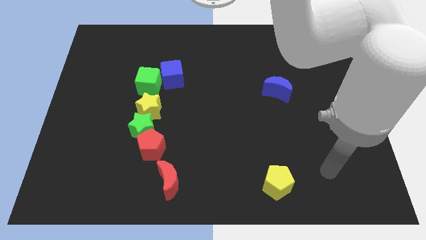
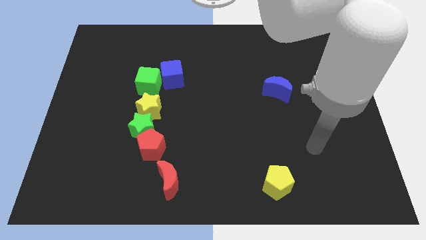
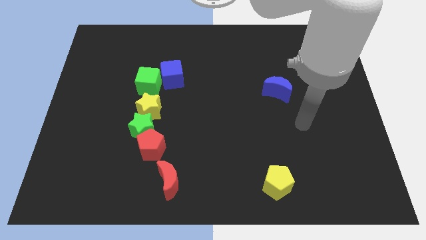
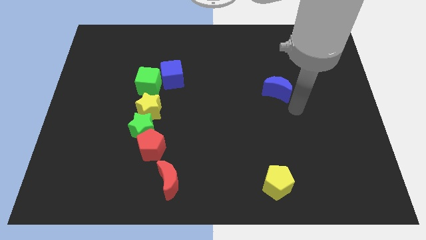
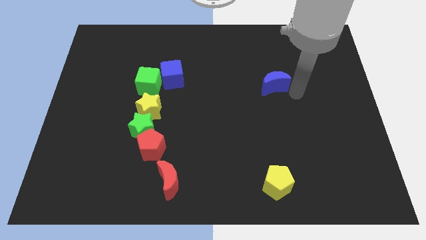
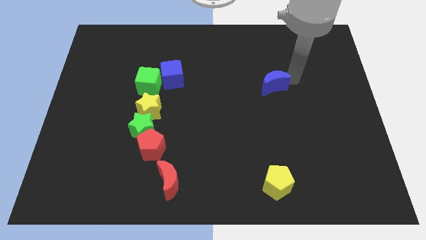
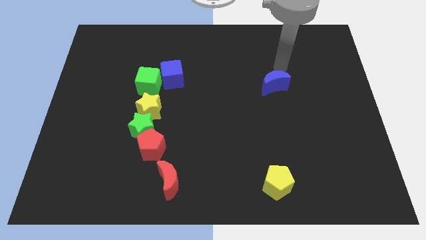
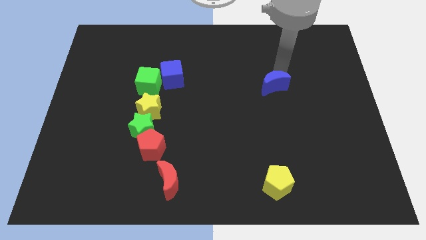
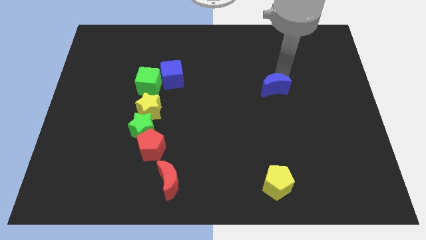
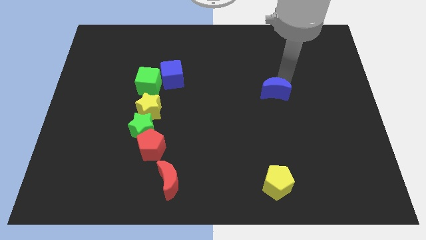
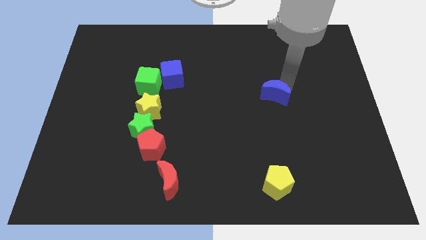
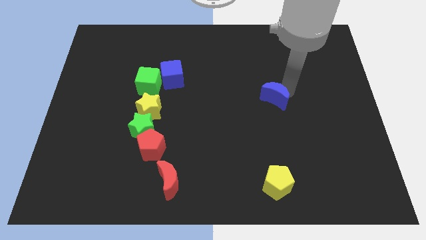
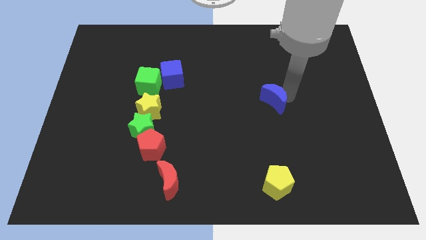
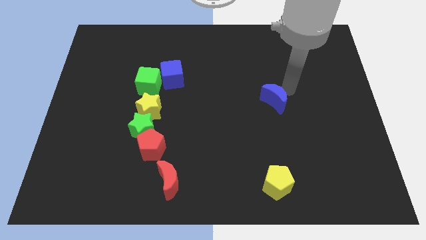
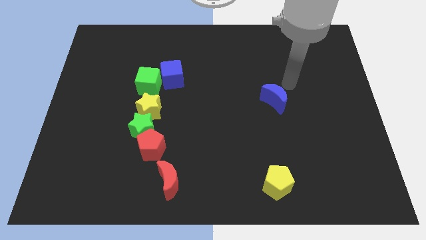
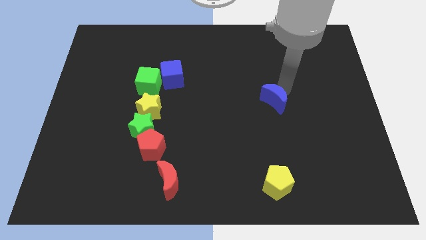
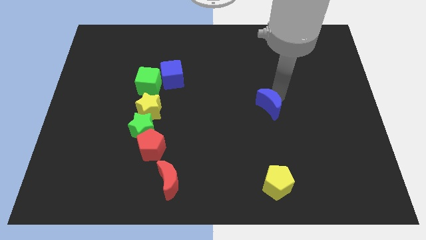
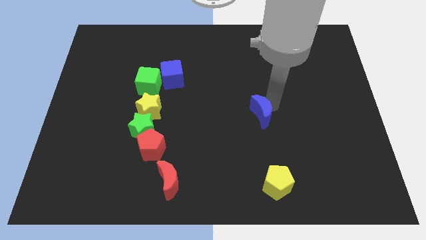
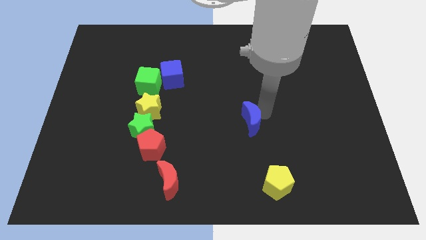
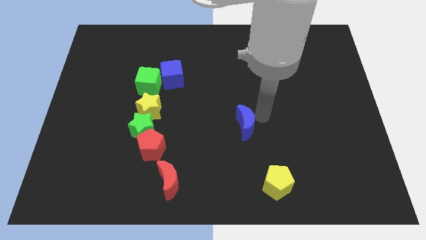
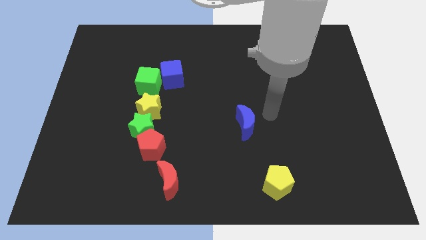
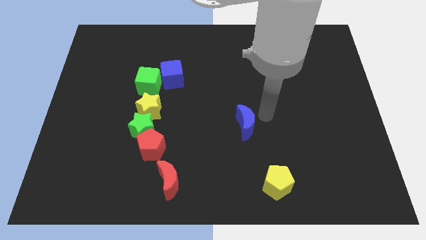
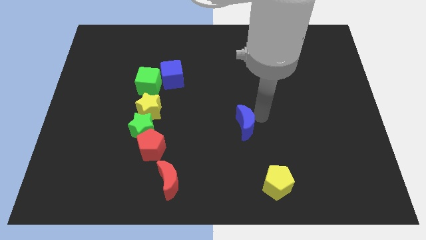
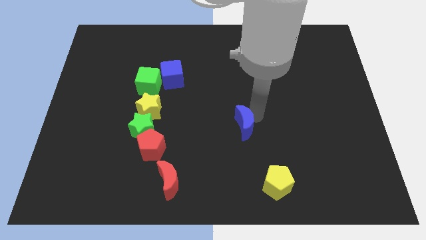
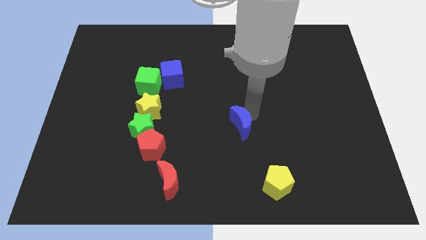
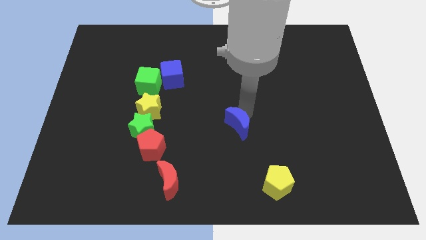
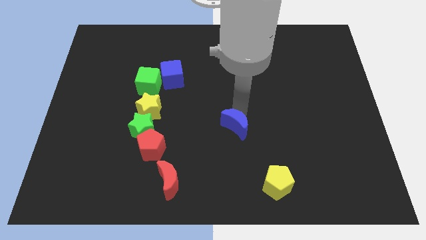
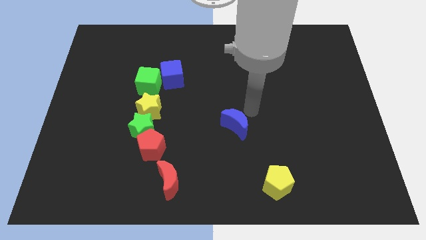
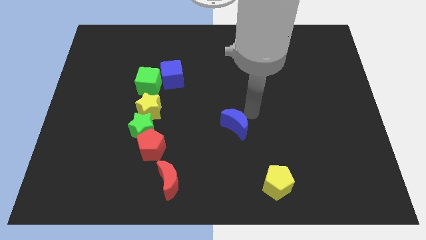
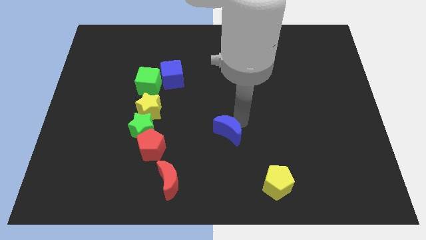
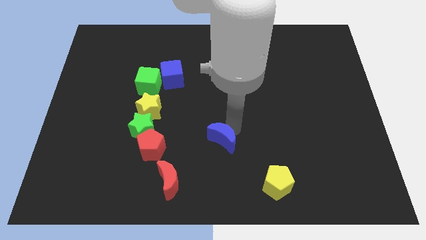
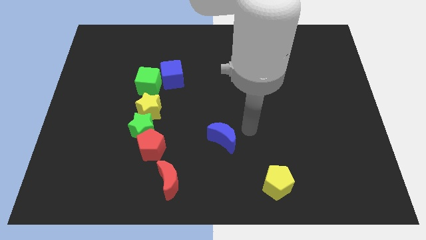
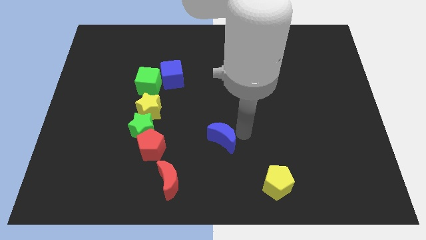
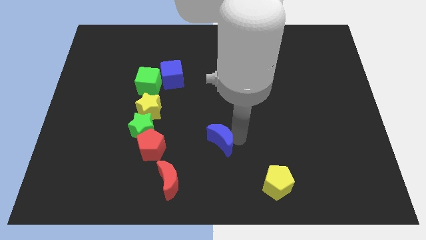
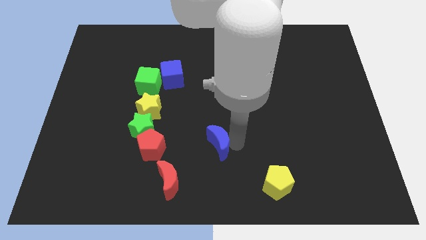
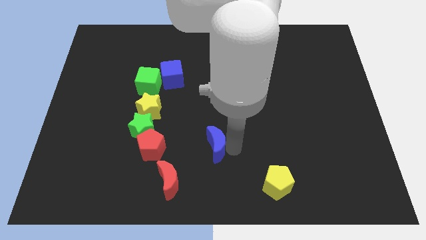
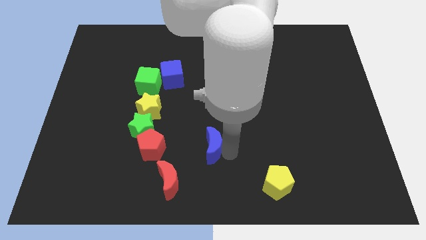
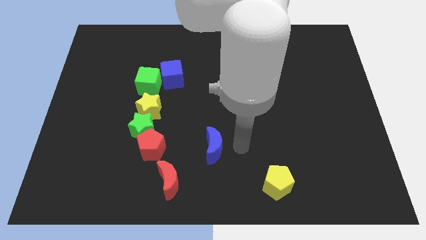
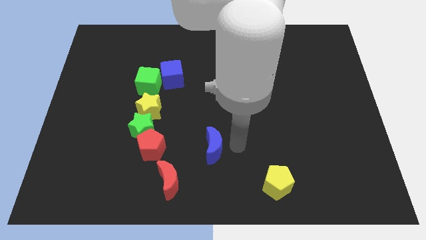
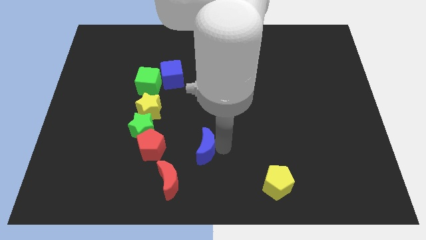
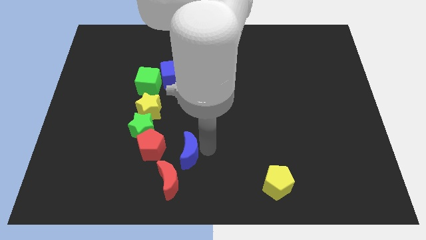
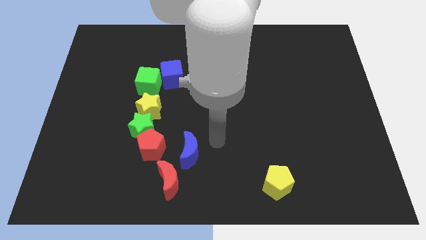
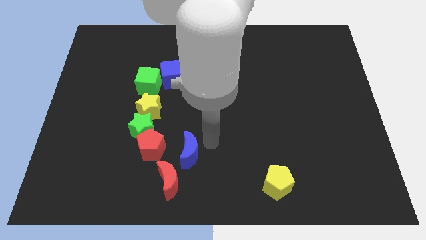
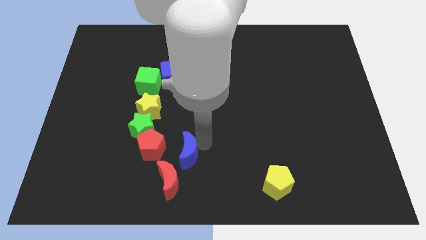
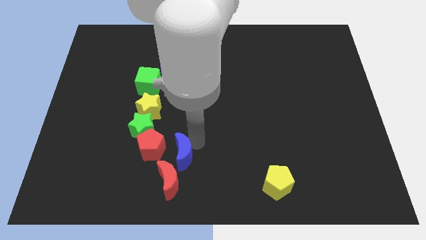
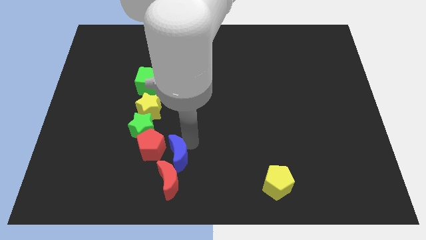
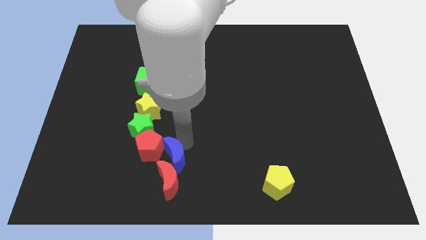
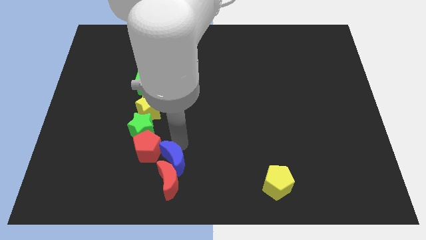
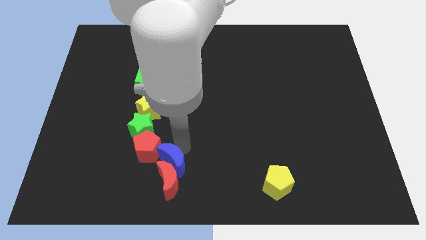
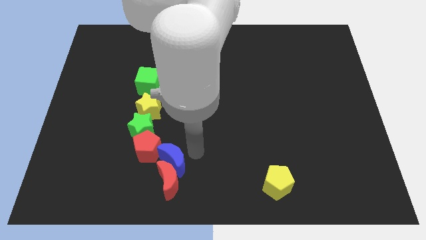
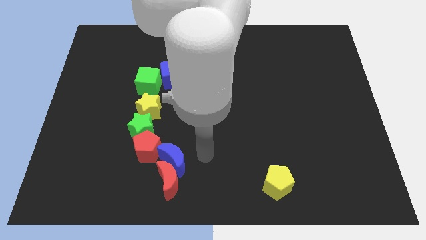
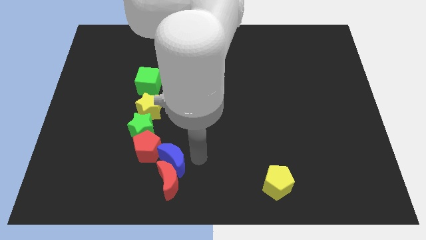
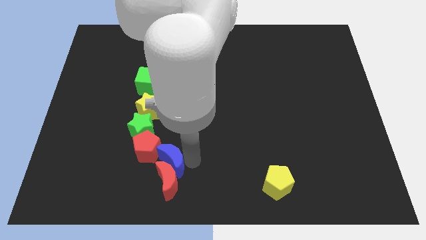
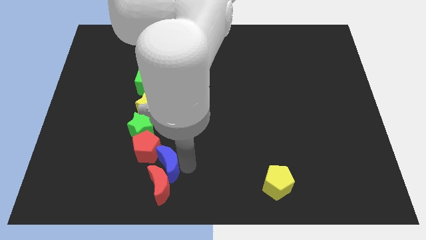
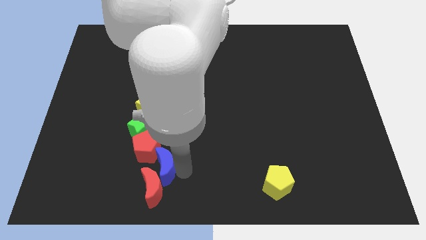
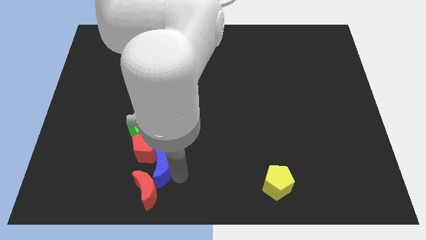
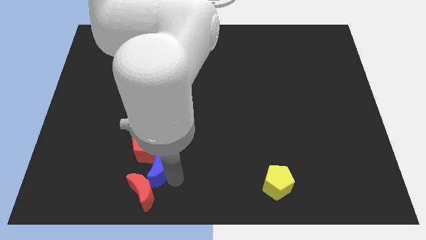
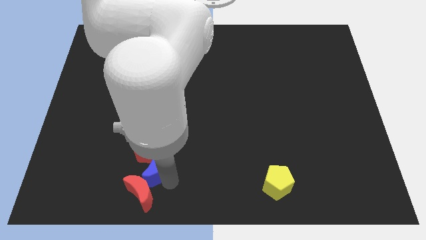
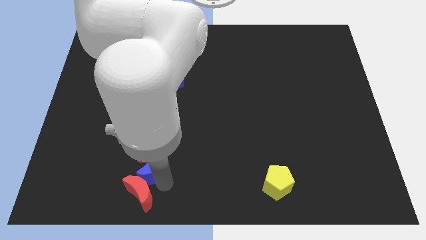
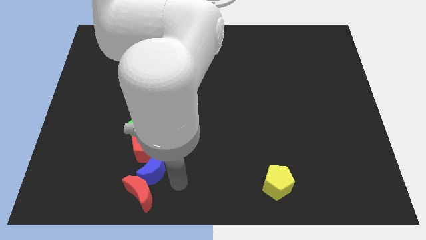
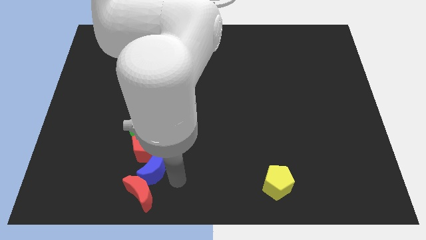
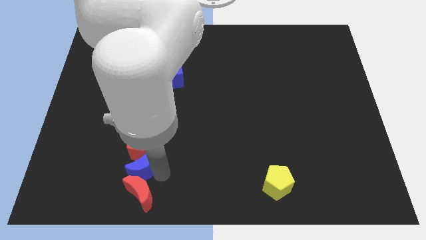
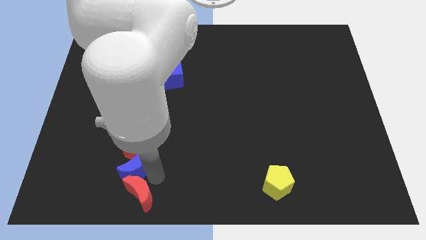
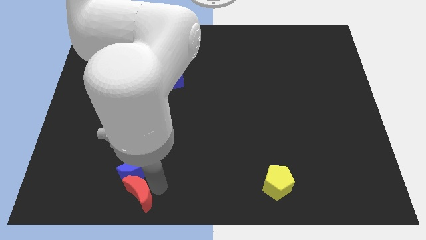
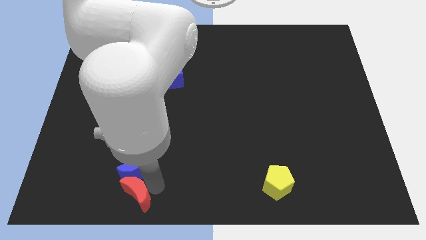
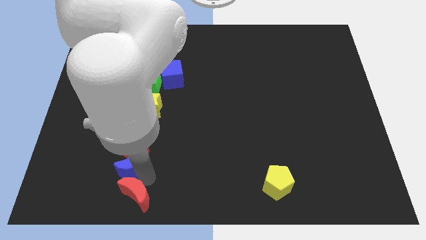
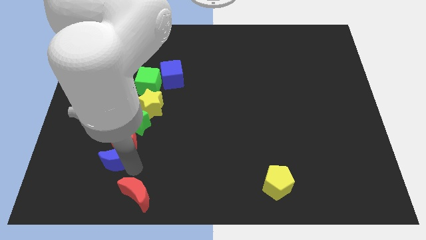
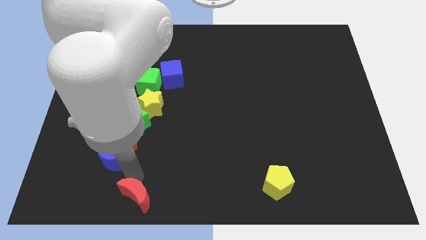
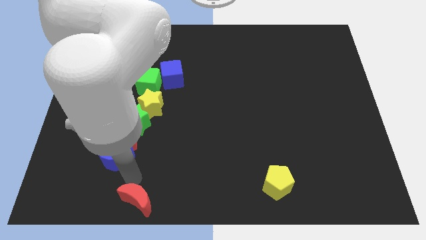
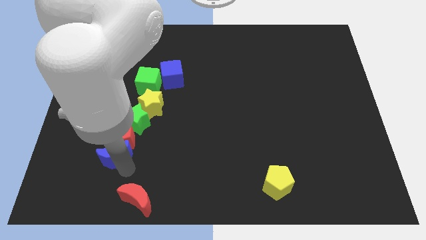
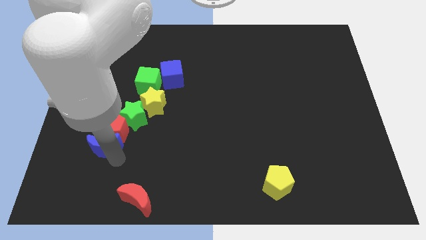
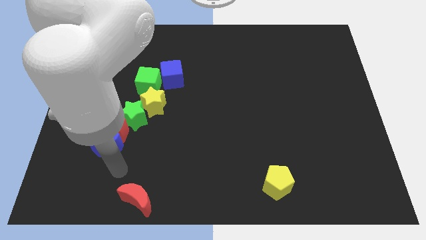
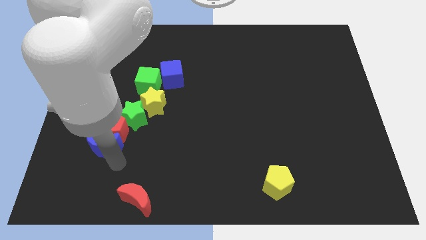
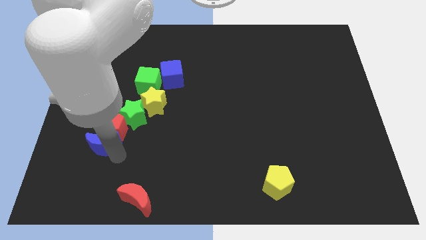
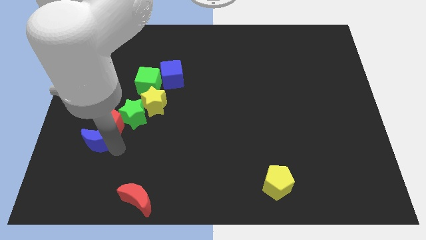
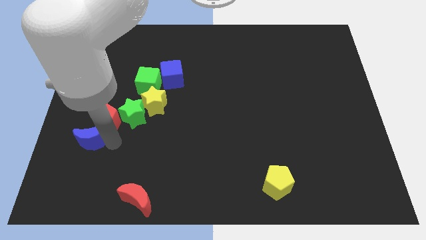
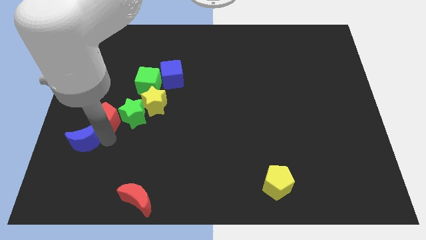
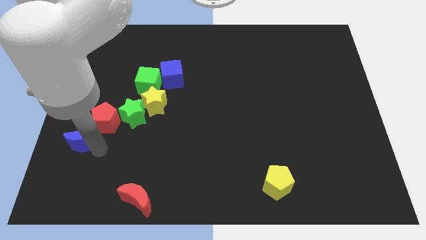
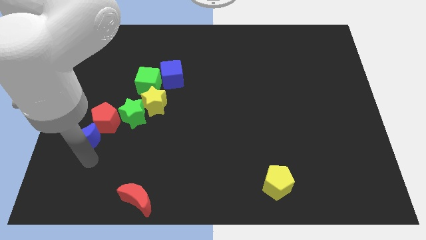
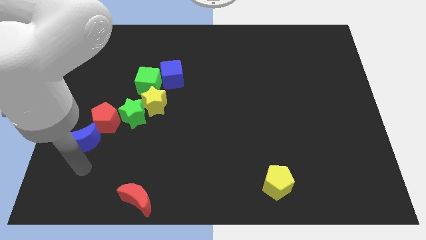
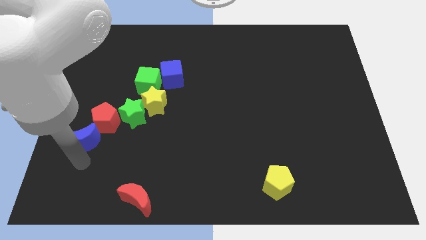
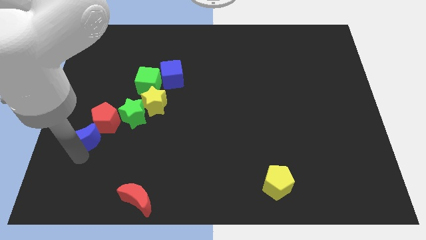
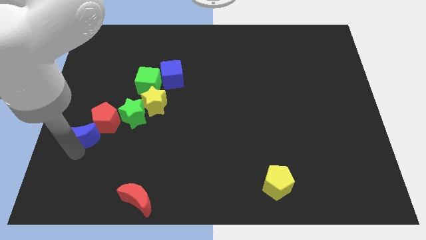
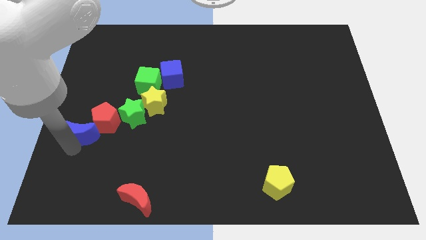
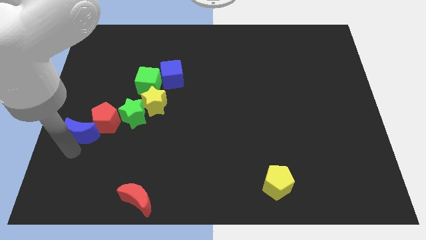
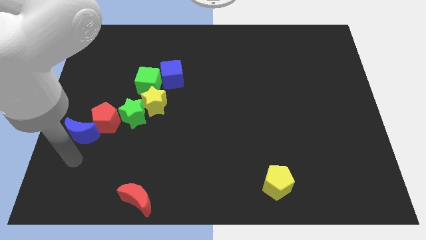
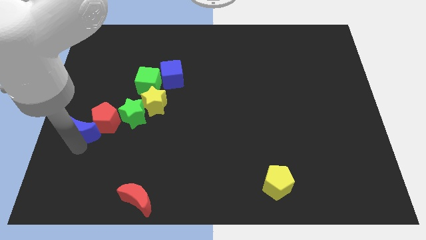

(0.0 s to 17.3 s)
slide the blue moon just left of the green star
